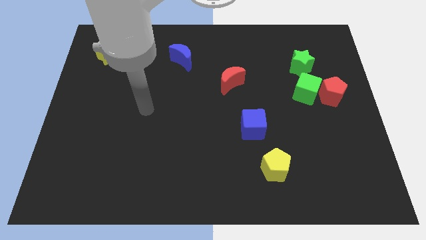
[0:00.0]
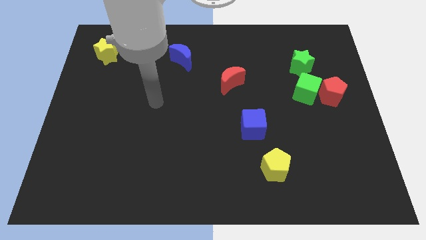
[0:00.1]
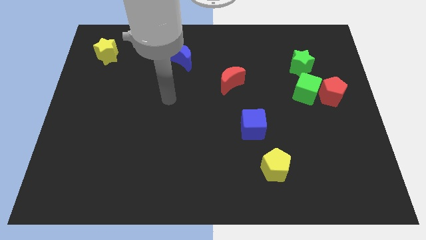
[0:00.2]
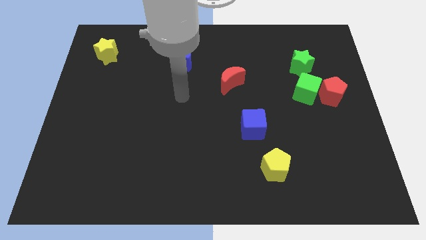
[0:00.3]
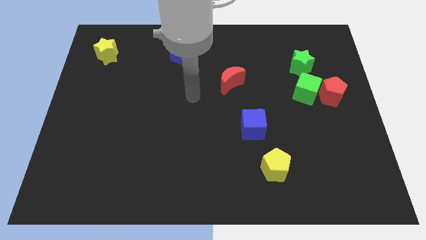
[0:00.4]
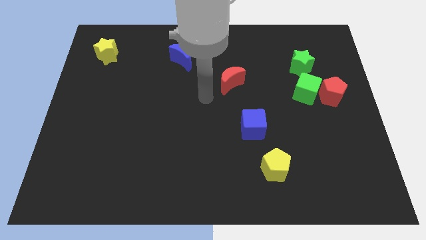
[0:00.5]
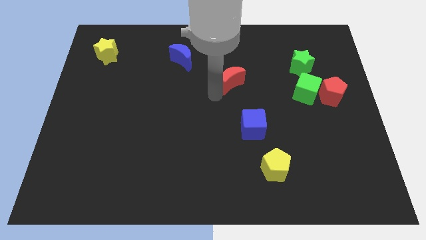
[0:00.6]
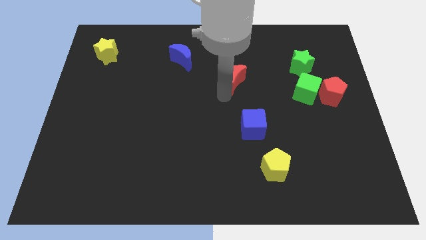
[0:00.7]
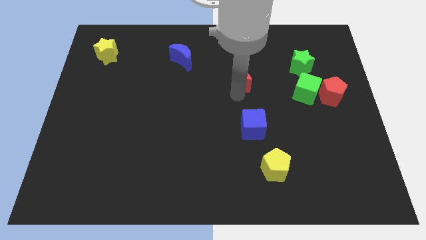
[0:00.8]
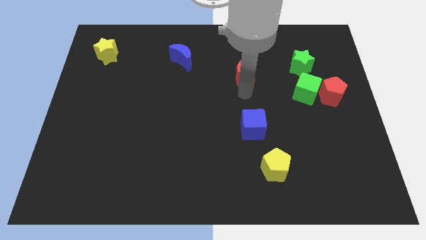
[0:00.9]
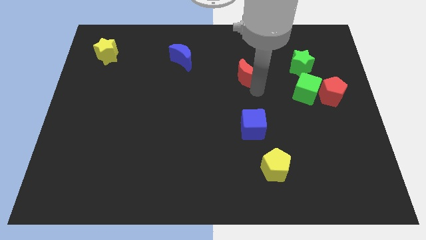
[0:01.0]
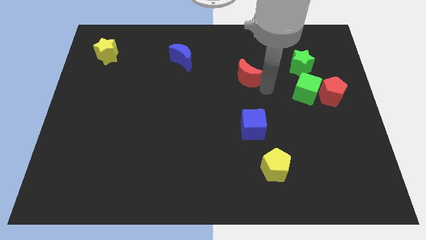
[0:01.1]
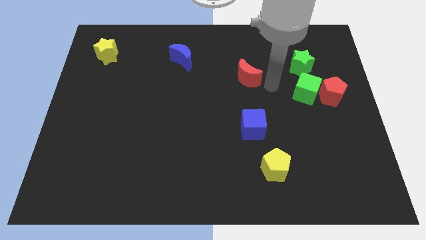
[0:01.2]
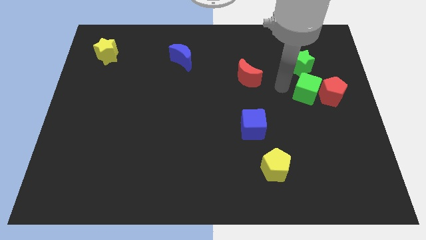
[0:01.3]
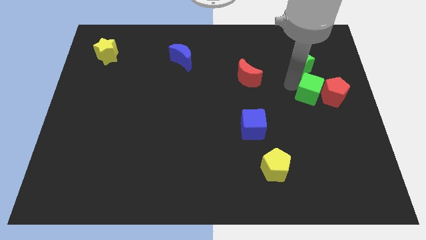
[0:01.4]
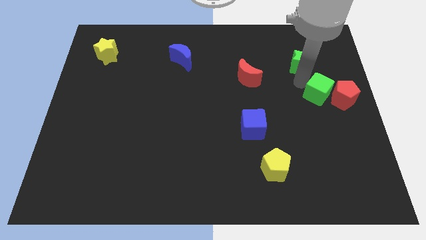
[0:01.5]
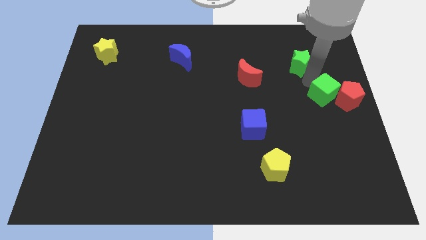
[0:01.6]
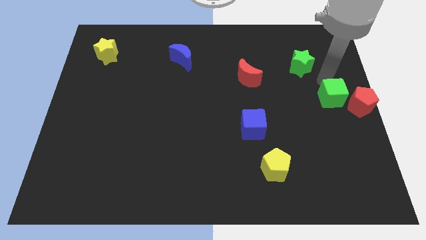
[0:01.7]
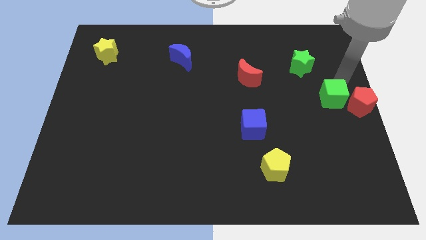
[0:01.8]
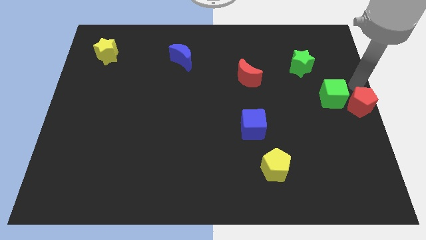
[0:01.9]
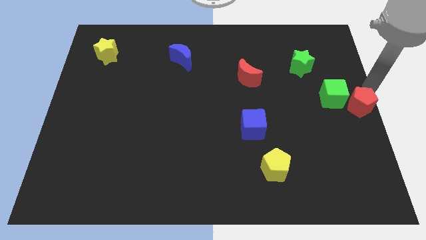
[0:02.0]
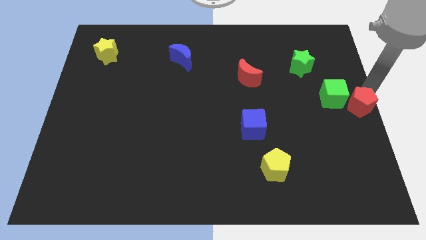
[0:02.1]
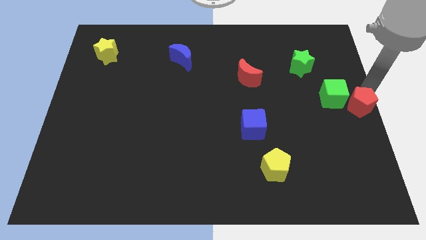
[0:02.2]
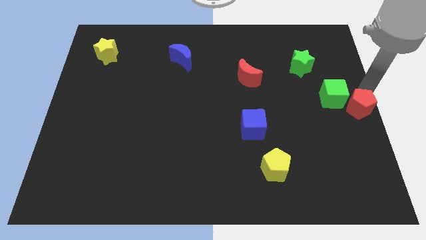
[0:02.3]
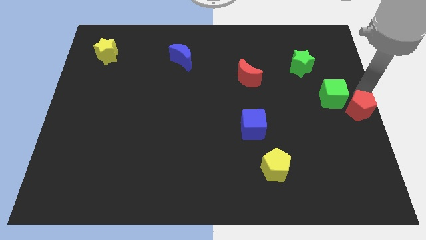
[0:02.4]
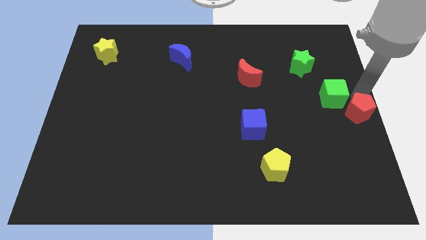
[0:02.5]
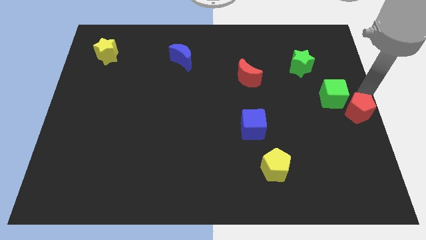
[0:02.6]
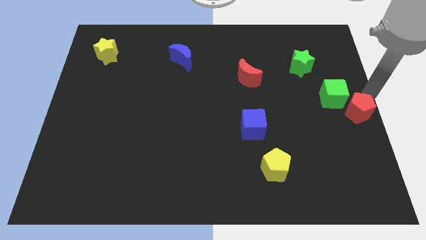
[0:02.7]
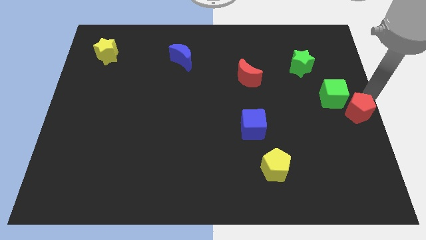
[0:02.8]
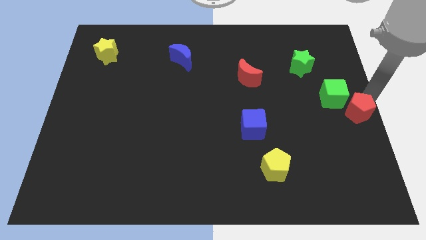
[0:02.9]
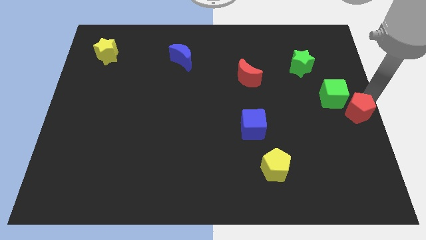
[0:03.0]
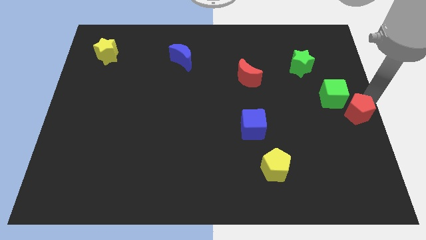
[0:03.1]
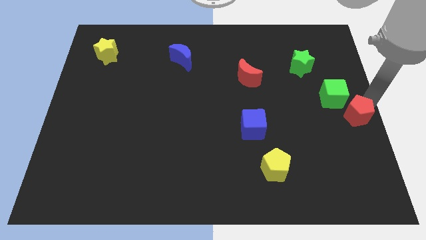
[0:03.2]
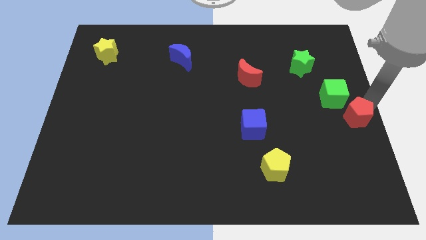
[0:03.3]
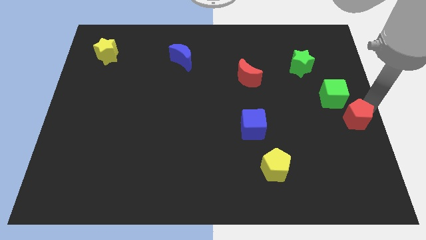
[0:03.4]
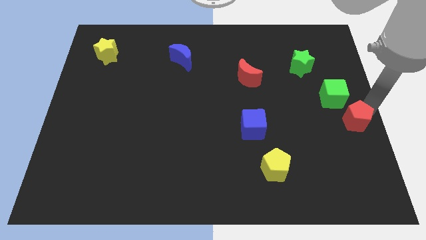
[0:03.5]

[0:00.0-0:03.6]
move the red pentagon downwards a little bit

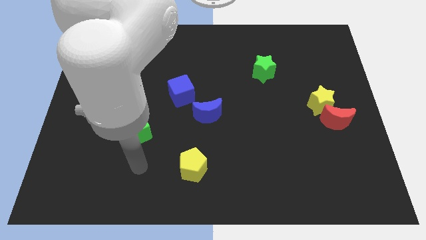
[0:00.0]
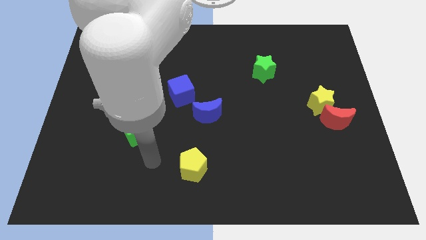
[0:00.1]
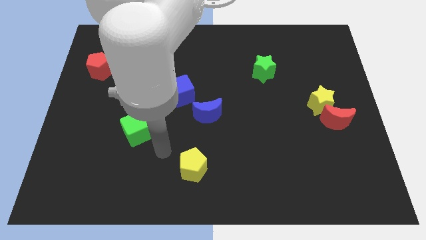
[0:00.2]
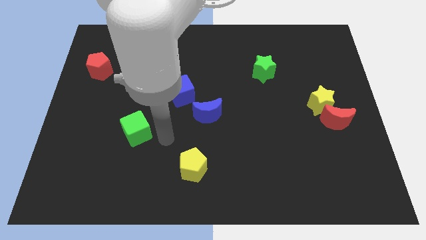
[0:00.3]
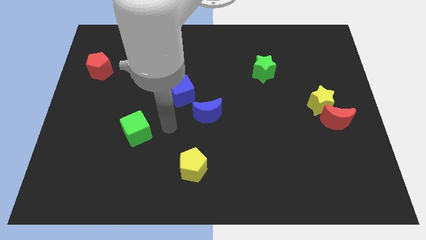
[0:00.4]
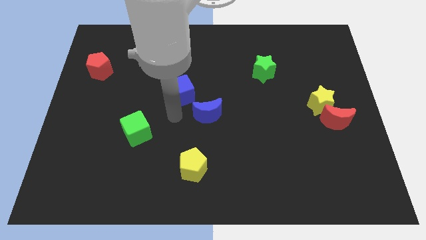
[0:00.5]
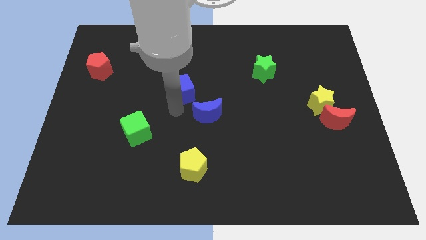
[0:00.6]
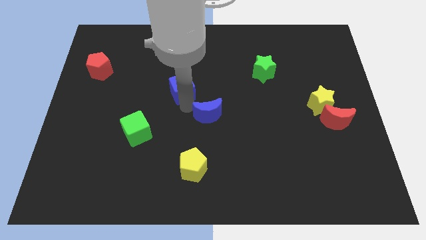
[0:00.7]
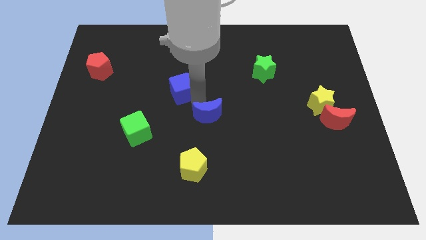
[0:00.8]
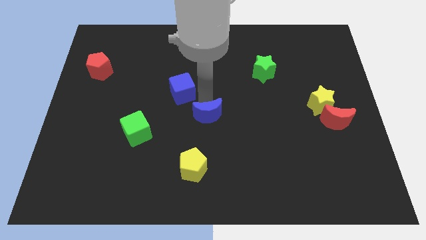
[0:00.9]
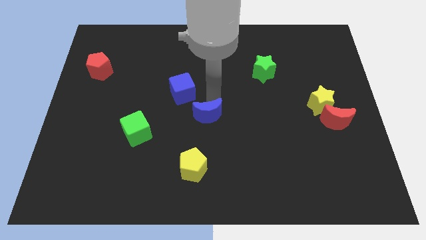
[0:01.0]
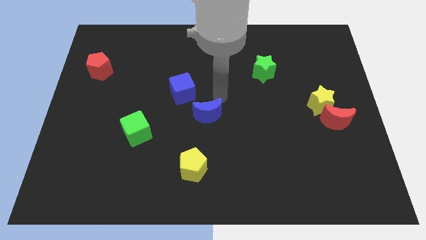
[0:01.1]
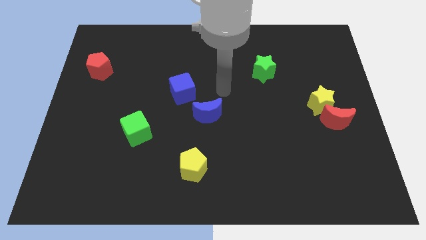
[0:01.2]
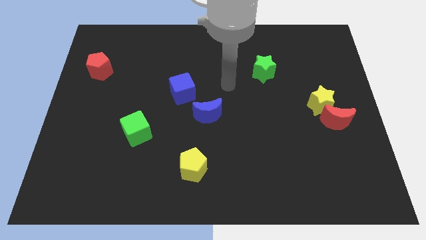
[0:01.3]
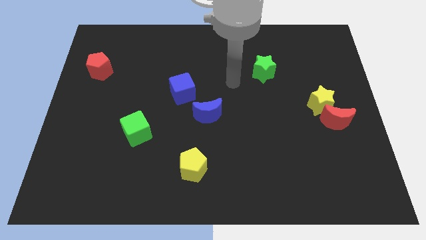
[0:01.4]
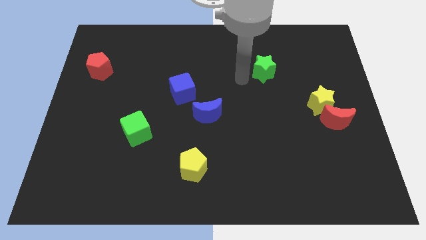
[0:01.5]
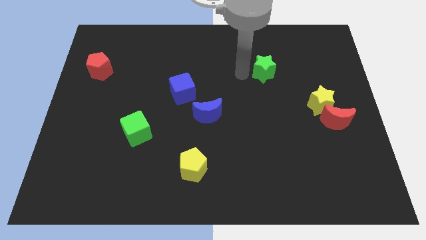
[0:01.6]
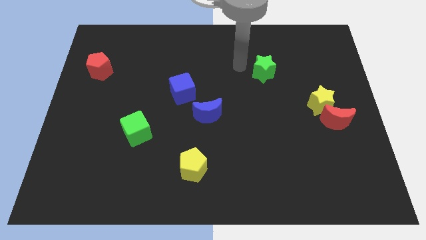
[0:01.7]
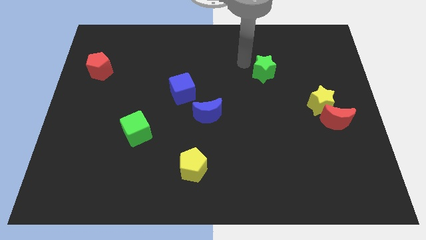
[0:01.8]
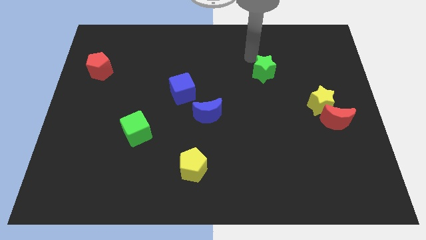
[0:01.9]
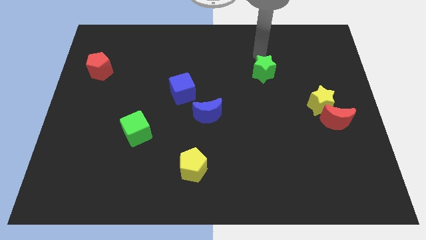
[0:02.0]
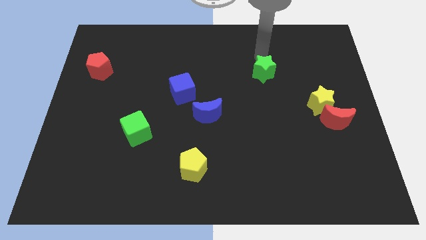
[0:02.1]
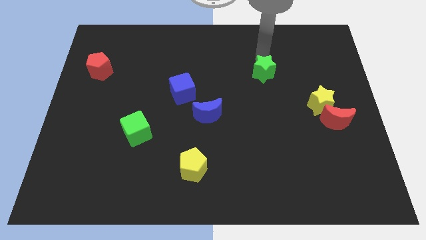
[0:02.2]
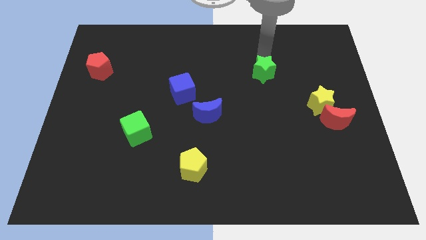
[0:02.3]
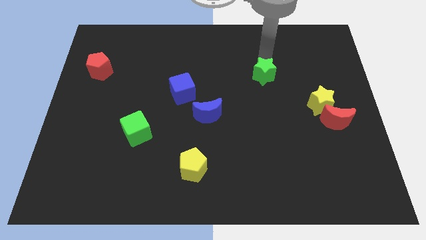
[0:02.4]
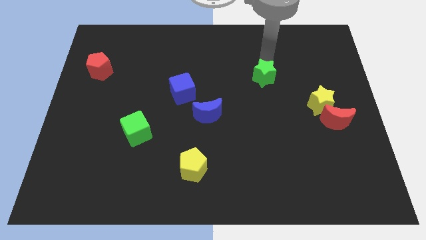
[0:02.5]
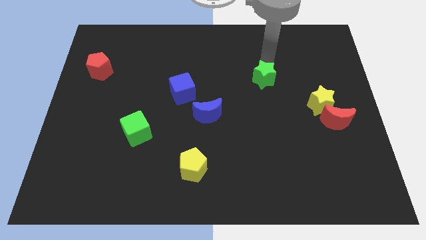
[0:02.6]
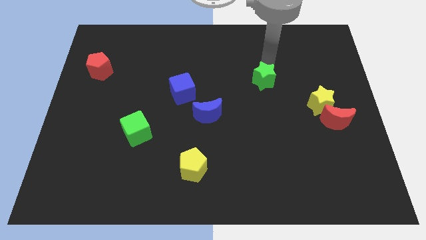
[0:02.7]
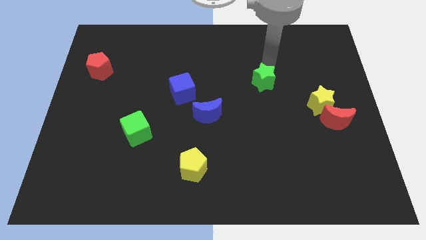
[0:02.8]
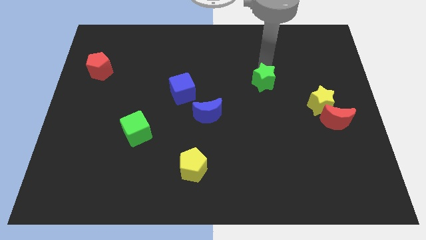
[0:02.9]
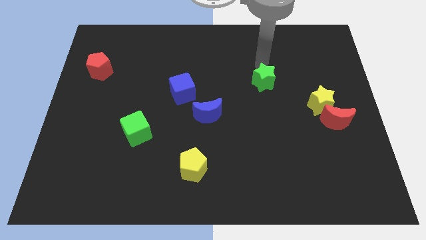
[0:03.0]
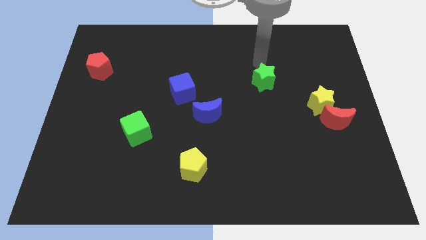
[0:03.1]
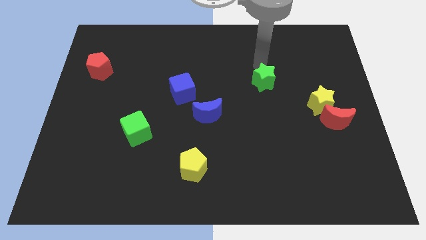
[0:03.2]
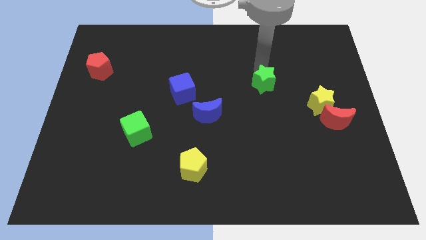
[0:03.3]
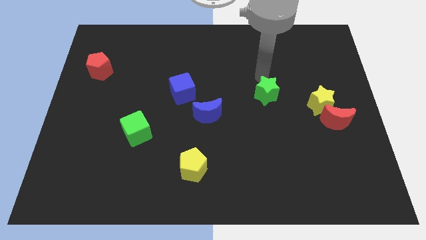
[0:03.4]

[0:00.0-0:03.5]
slightly move the green star downwards

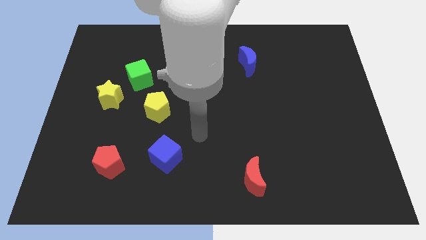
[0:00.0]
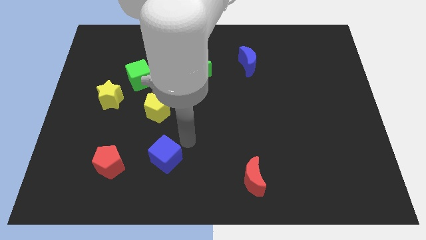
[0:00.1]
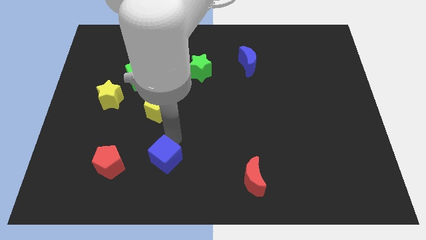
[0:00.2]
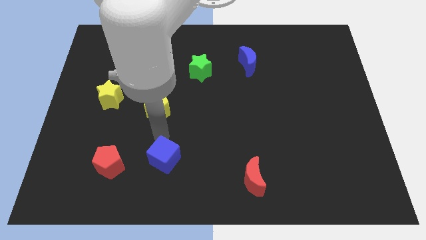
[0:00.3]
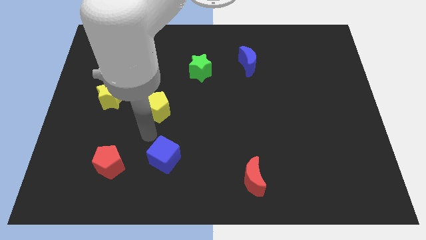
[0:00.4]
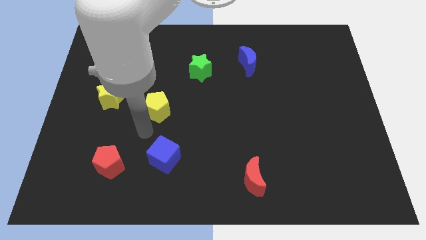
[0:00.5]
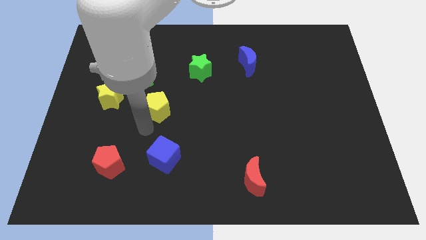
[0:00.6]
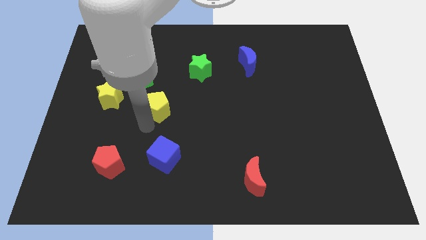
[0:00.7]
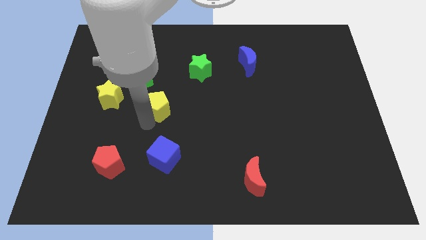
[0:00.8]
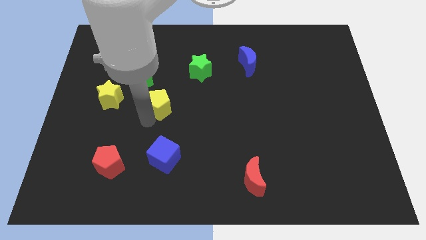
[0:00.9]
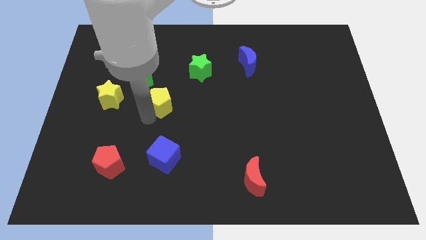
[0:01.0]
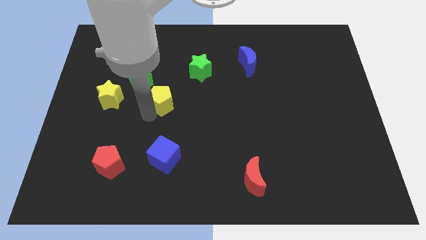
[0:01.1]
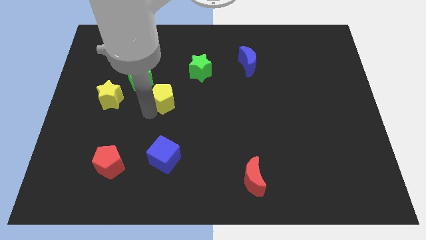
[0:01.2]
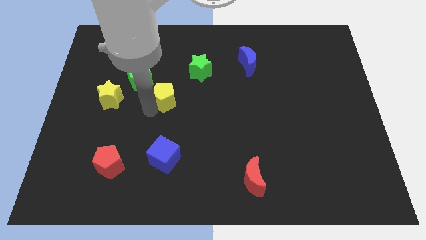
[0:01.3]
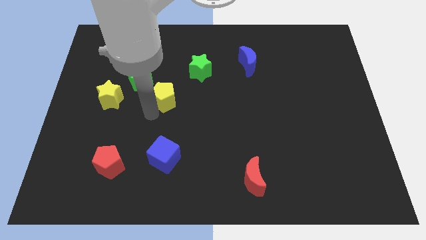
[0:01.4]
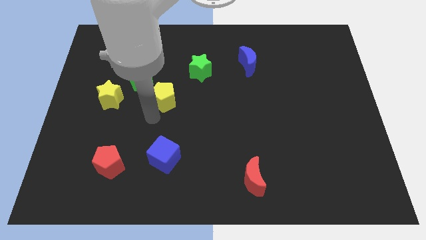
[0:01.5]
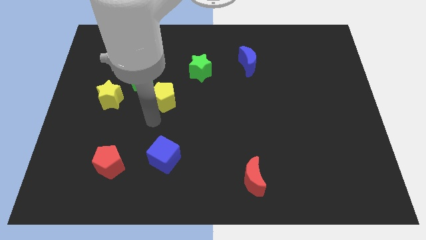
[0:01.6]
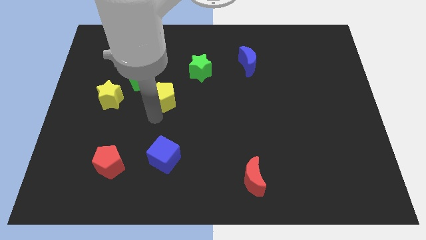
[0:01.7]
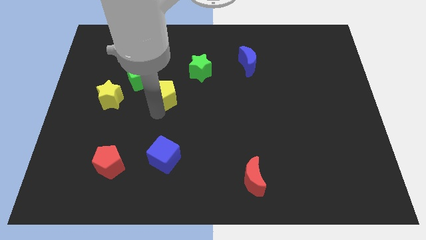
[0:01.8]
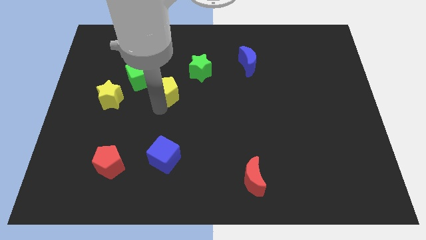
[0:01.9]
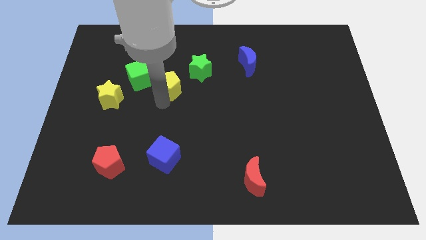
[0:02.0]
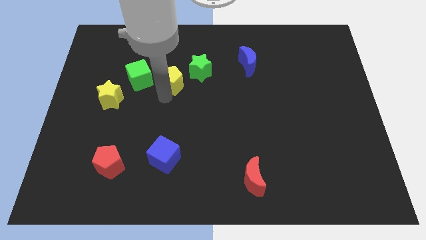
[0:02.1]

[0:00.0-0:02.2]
push the yellow pentagon a little up and right diagonally
